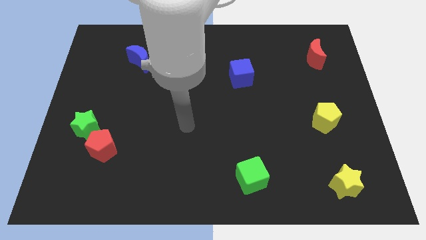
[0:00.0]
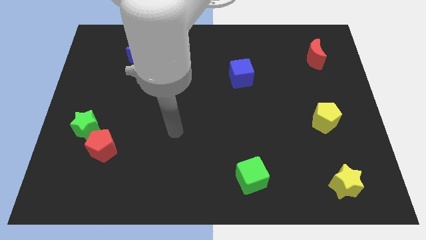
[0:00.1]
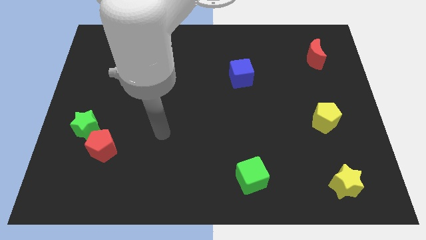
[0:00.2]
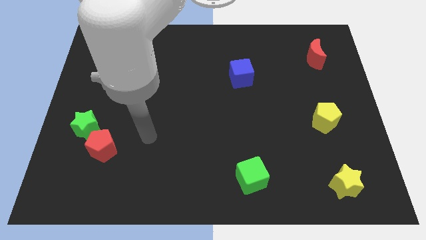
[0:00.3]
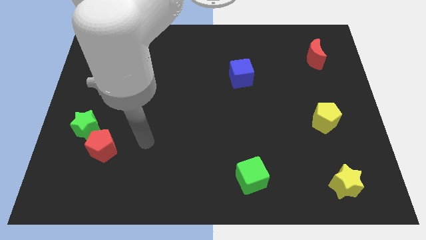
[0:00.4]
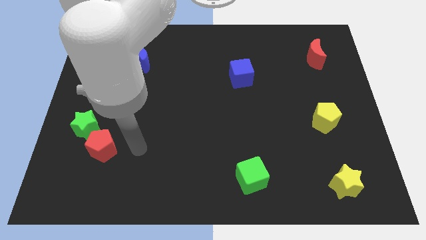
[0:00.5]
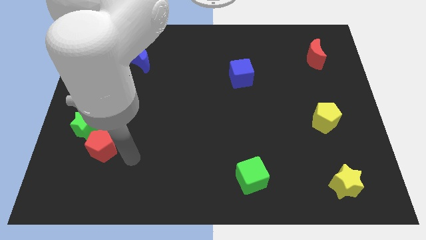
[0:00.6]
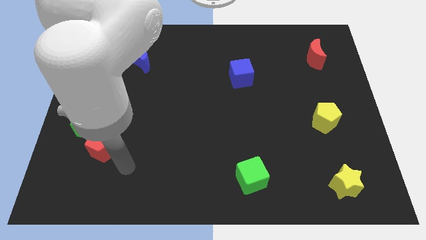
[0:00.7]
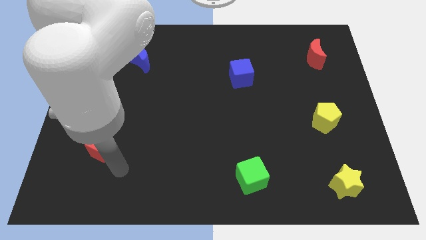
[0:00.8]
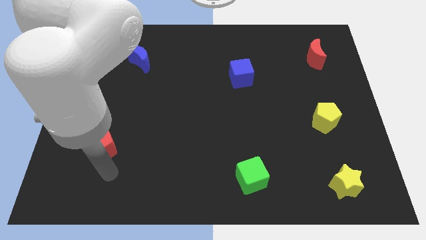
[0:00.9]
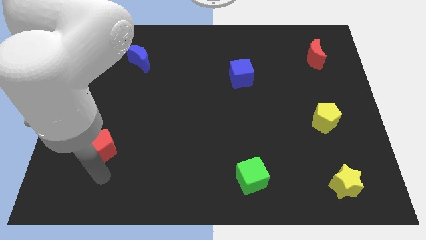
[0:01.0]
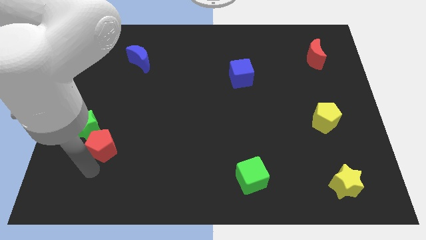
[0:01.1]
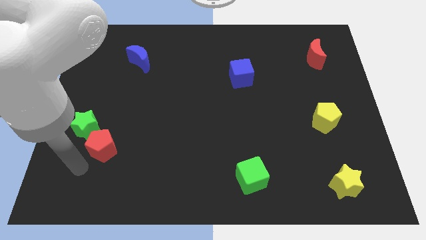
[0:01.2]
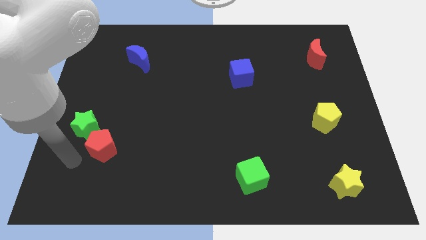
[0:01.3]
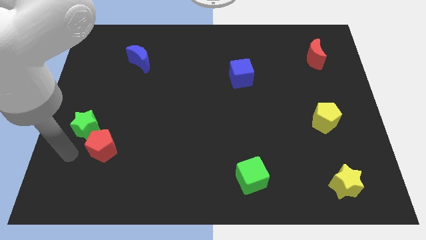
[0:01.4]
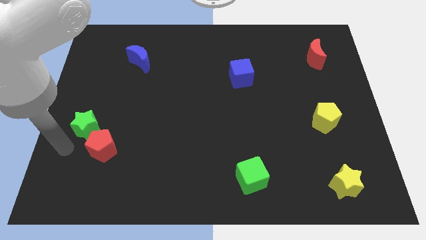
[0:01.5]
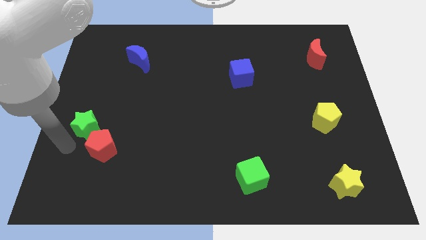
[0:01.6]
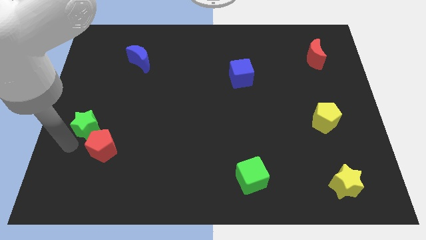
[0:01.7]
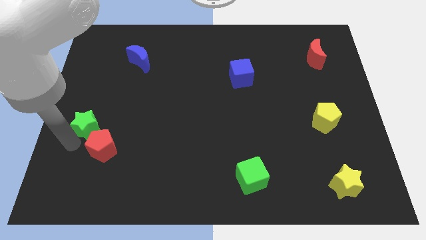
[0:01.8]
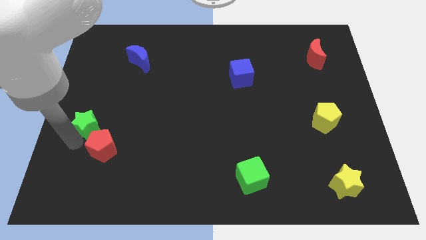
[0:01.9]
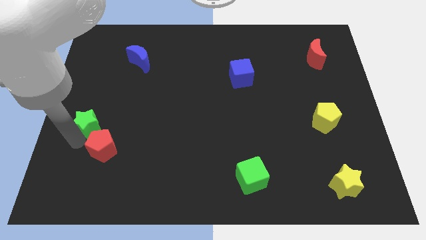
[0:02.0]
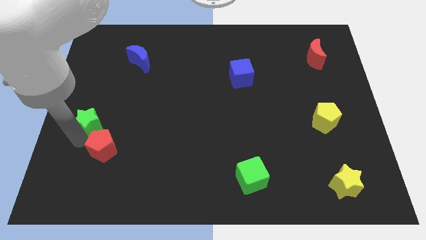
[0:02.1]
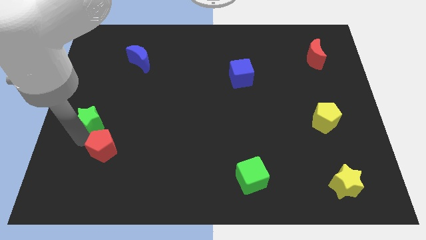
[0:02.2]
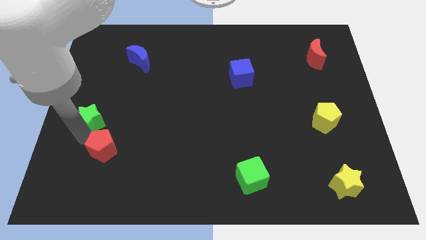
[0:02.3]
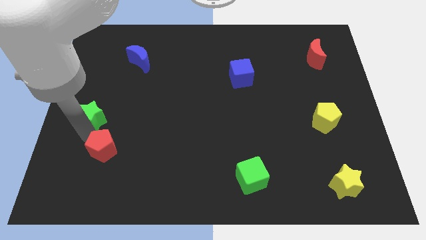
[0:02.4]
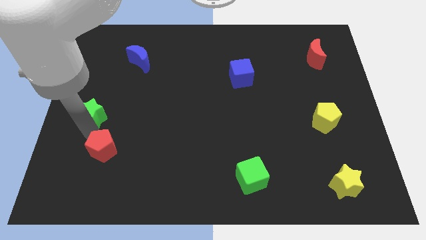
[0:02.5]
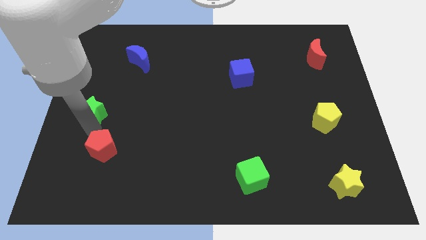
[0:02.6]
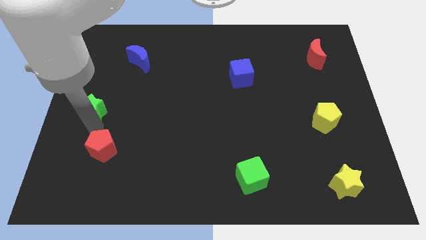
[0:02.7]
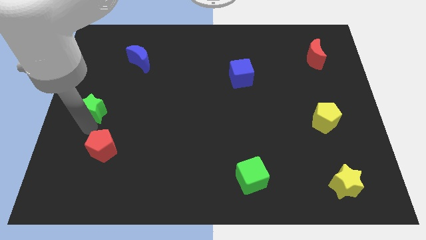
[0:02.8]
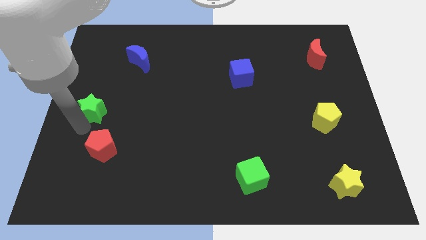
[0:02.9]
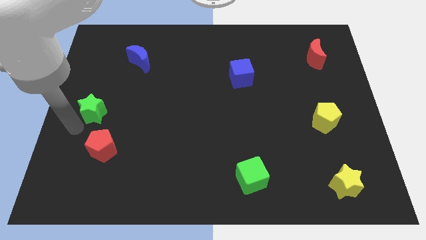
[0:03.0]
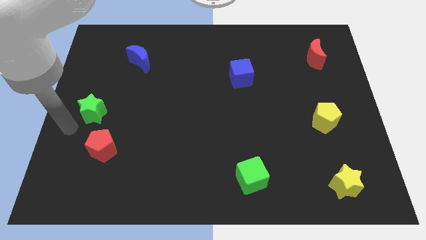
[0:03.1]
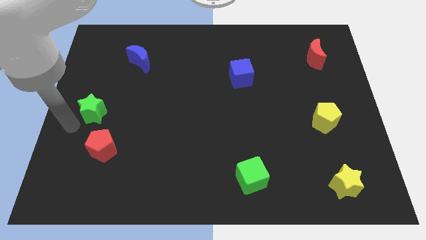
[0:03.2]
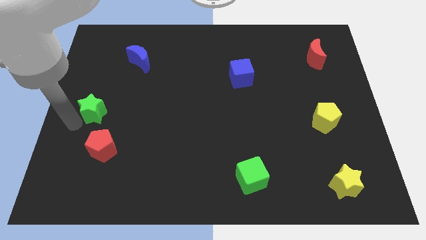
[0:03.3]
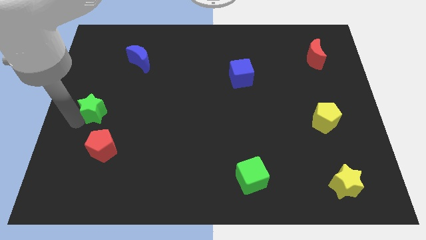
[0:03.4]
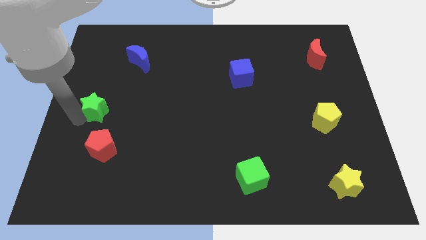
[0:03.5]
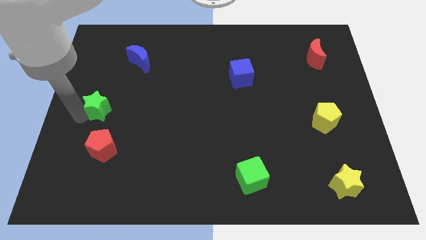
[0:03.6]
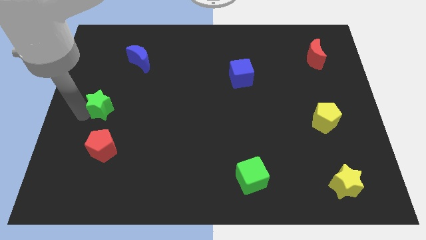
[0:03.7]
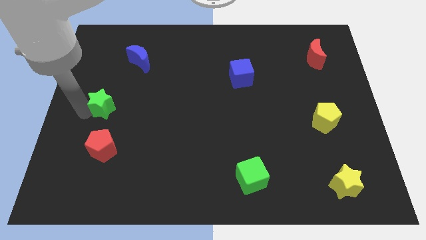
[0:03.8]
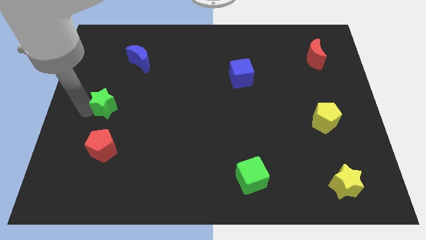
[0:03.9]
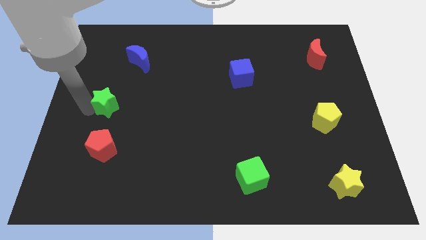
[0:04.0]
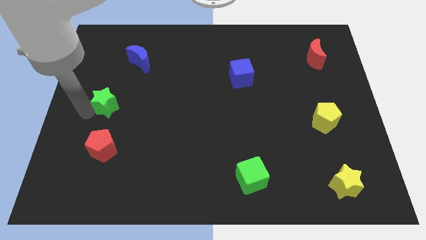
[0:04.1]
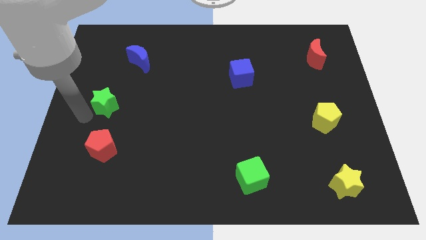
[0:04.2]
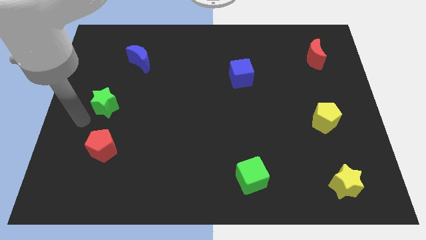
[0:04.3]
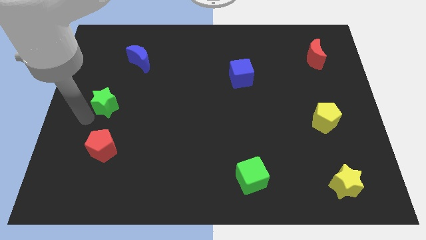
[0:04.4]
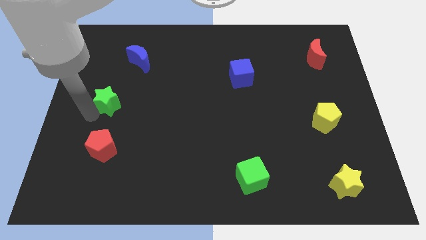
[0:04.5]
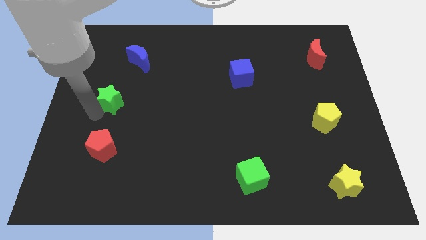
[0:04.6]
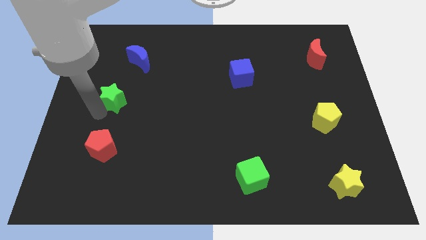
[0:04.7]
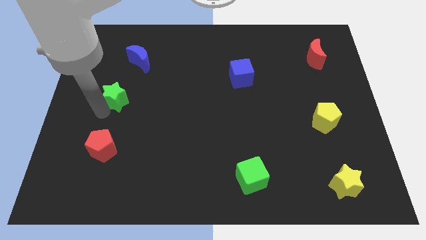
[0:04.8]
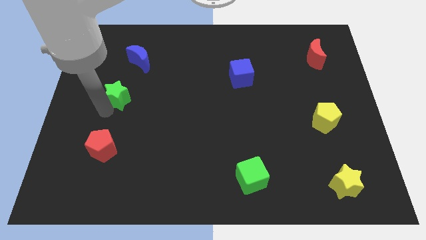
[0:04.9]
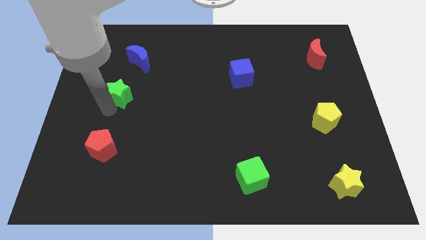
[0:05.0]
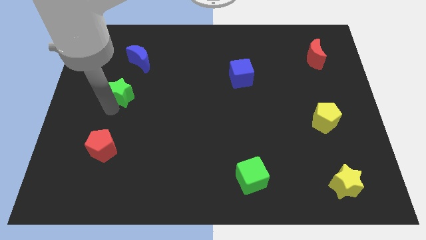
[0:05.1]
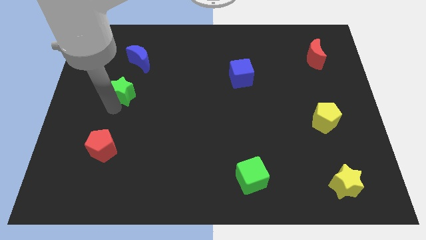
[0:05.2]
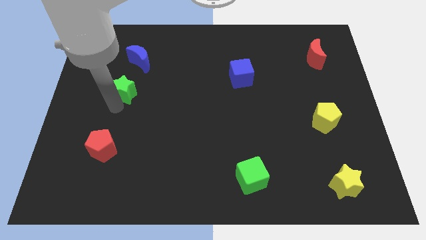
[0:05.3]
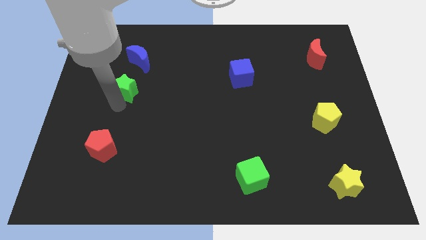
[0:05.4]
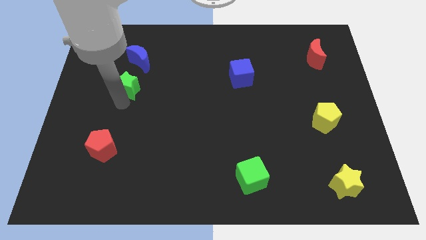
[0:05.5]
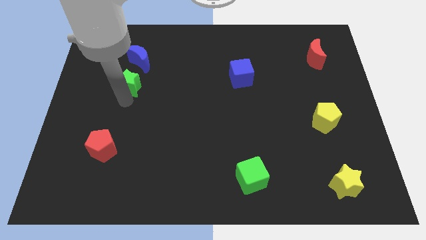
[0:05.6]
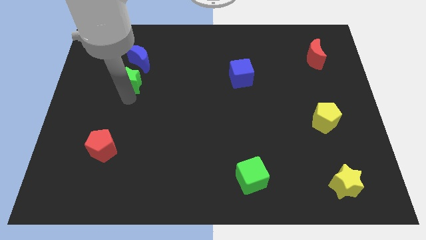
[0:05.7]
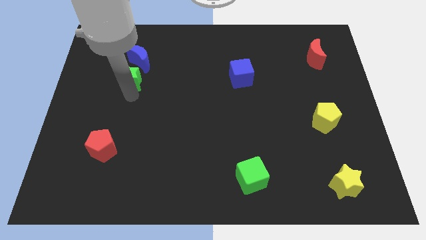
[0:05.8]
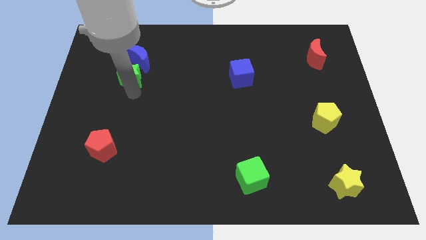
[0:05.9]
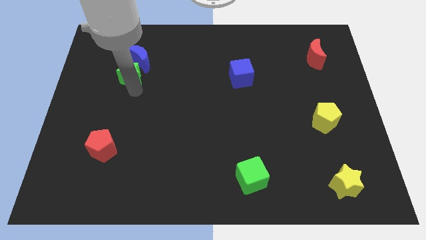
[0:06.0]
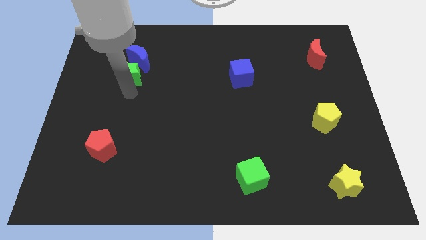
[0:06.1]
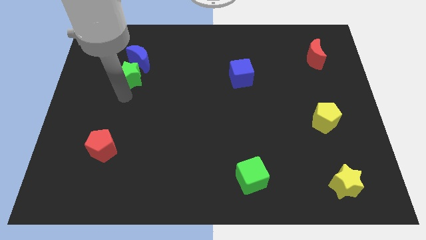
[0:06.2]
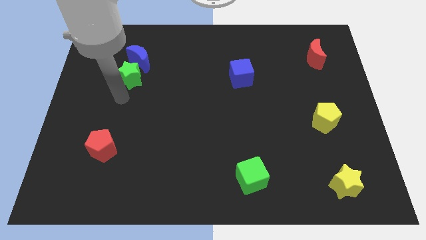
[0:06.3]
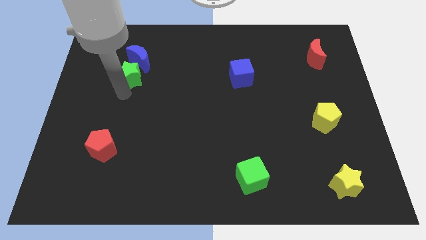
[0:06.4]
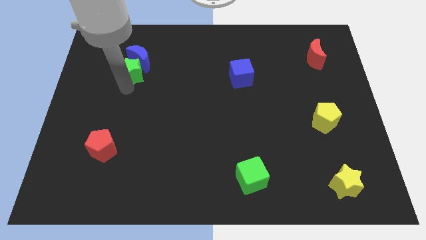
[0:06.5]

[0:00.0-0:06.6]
put the green star close to the blue moon

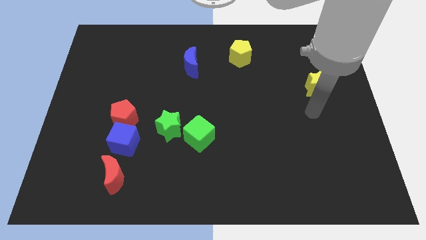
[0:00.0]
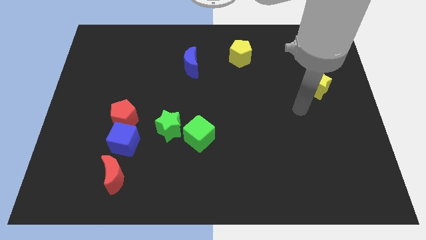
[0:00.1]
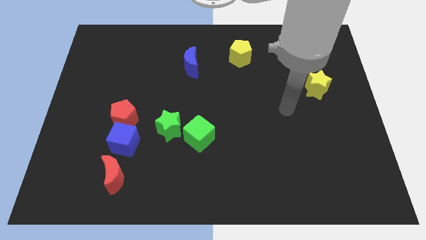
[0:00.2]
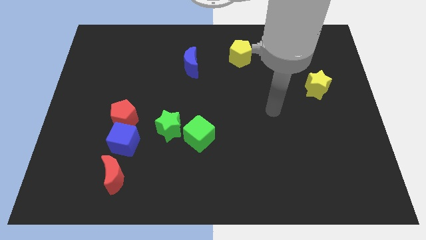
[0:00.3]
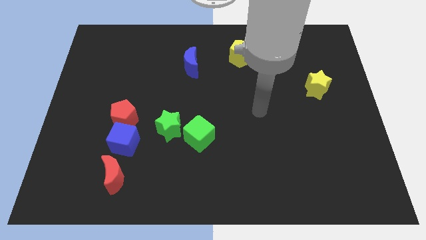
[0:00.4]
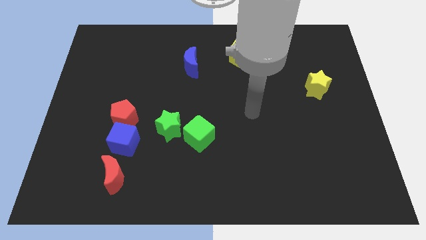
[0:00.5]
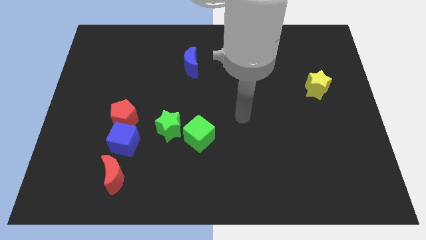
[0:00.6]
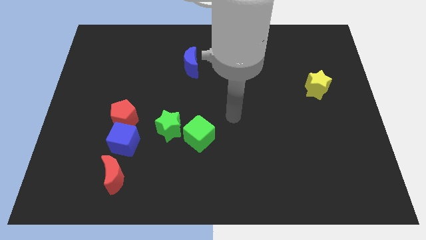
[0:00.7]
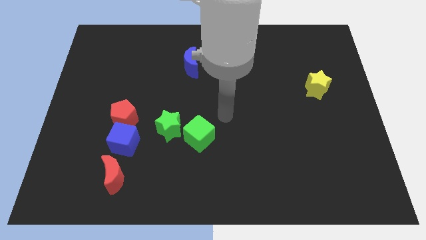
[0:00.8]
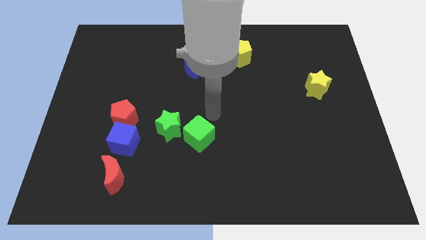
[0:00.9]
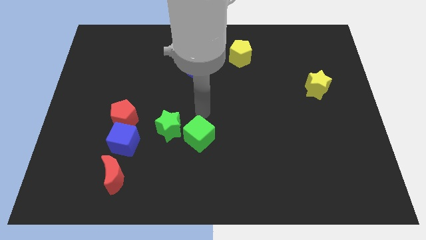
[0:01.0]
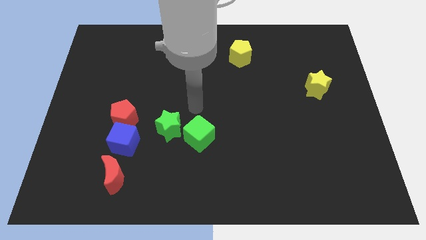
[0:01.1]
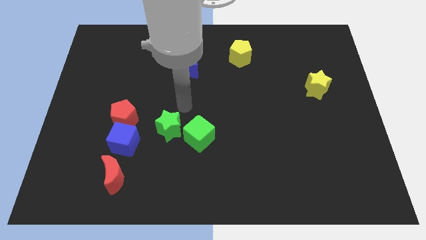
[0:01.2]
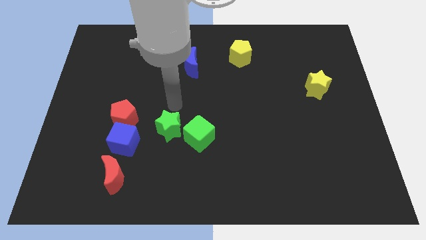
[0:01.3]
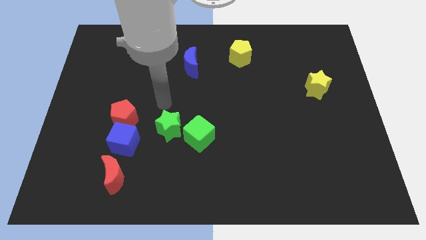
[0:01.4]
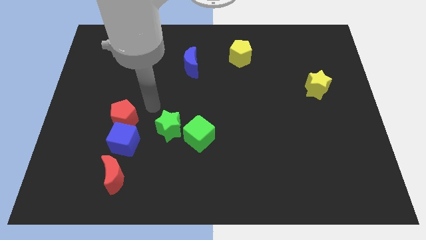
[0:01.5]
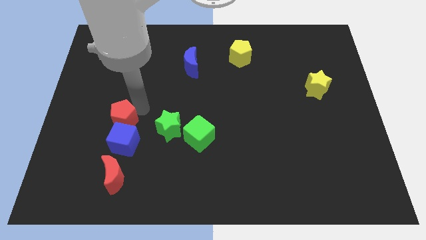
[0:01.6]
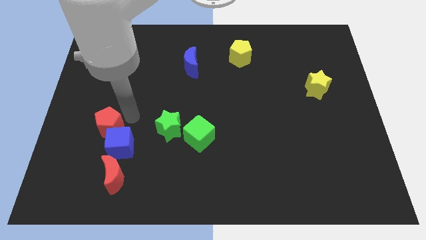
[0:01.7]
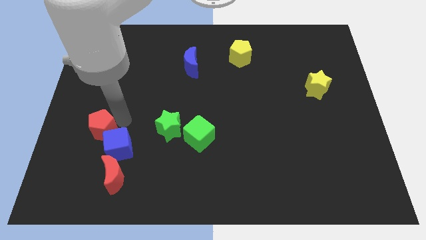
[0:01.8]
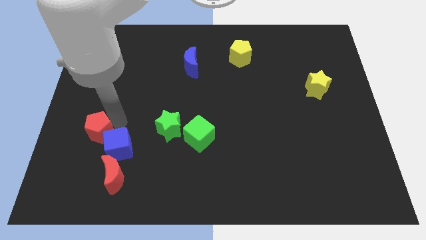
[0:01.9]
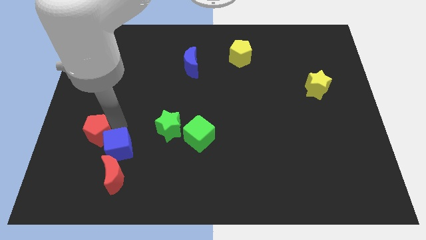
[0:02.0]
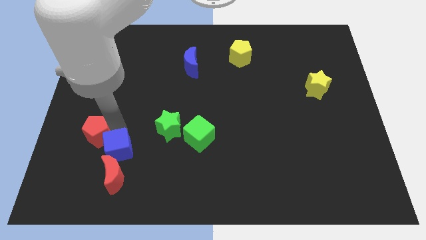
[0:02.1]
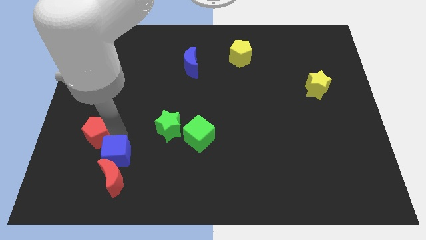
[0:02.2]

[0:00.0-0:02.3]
move the blue cube close to the red moon
